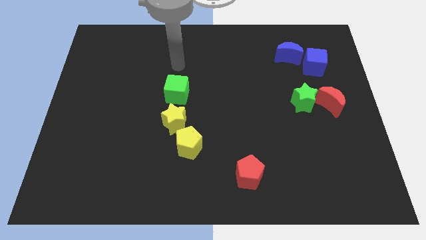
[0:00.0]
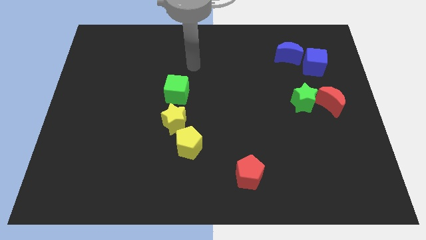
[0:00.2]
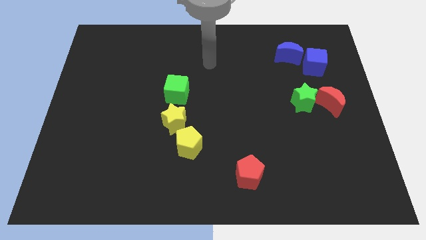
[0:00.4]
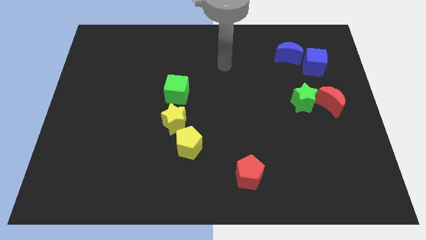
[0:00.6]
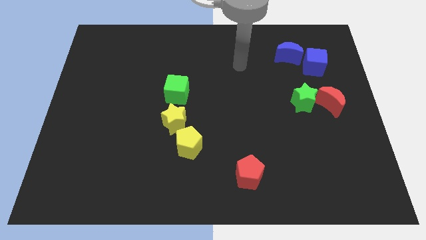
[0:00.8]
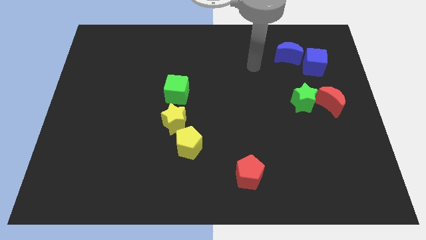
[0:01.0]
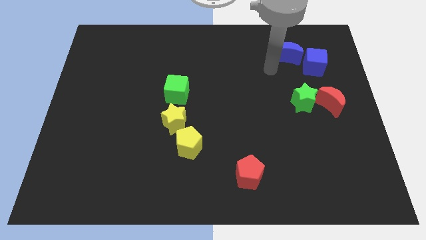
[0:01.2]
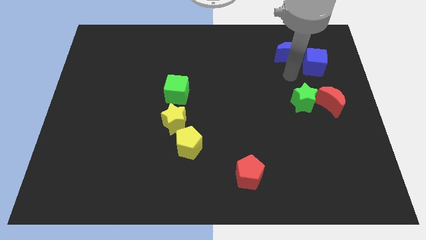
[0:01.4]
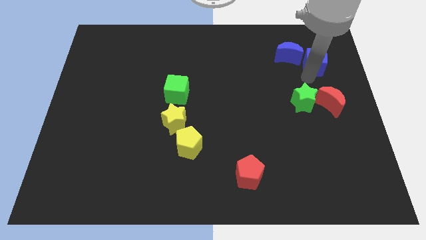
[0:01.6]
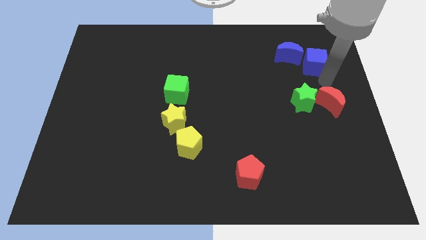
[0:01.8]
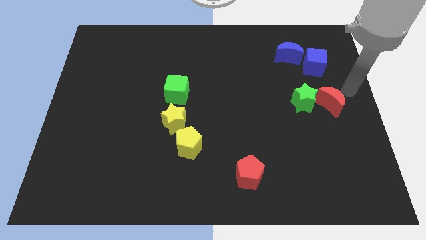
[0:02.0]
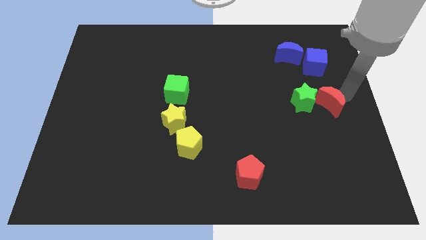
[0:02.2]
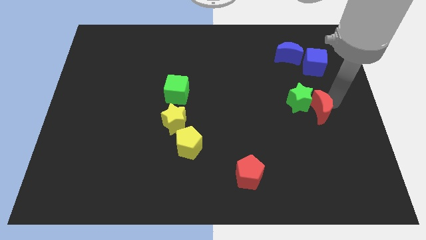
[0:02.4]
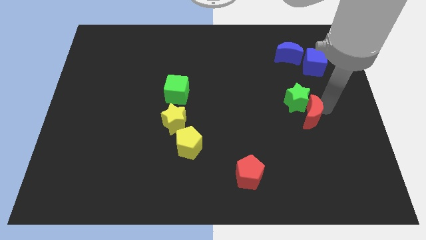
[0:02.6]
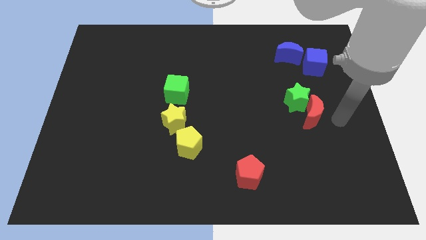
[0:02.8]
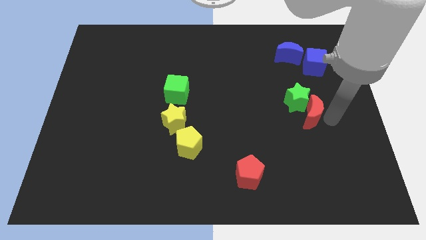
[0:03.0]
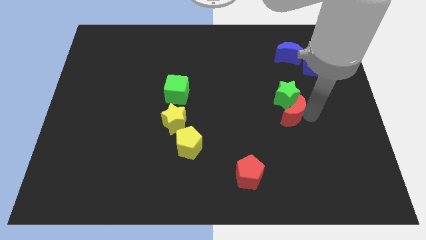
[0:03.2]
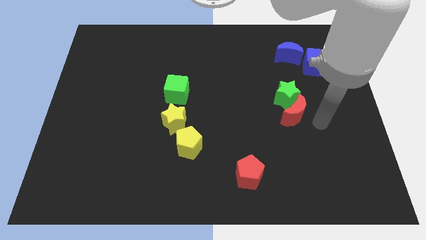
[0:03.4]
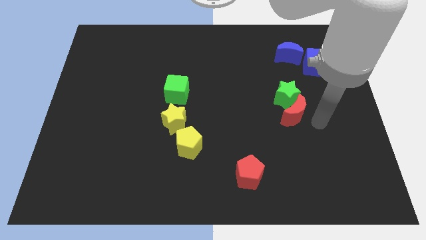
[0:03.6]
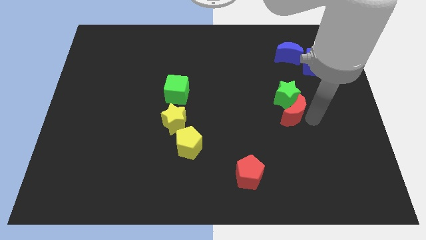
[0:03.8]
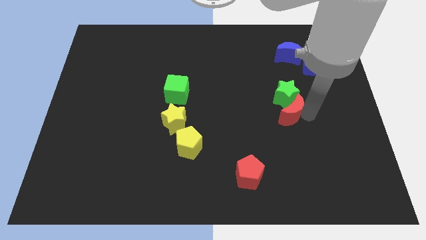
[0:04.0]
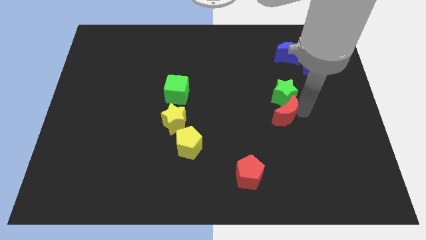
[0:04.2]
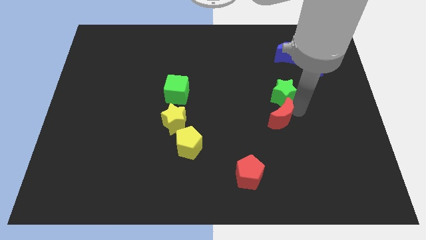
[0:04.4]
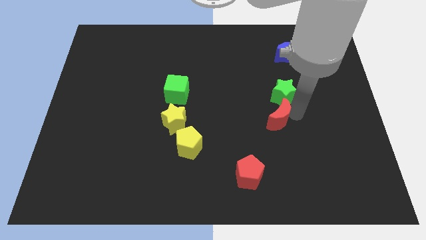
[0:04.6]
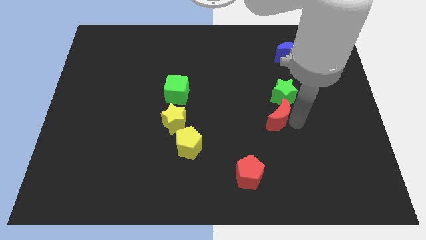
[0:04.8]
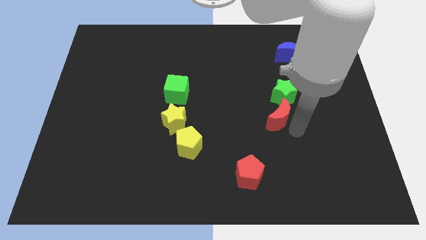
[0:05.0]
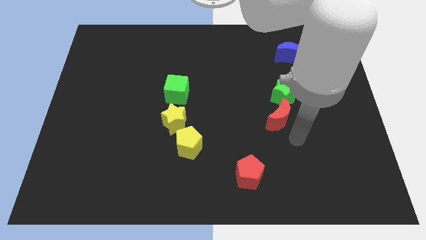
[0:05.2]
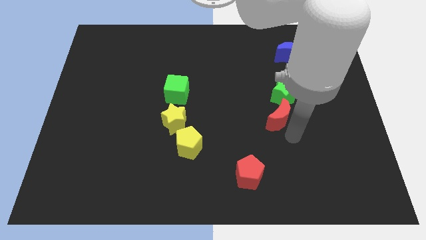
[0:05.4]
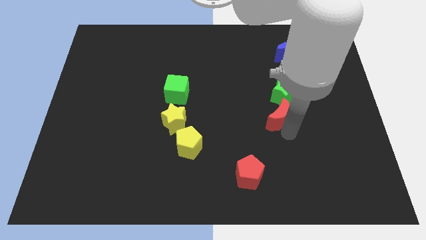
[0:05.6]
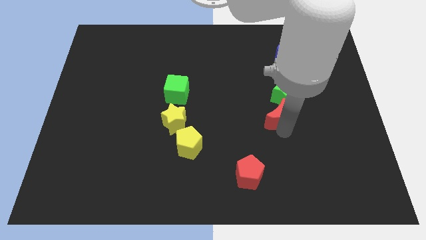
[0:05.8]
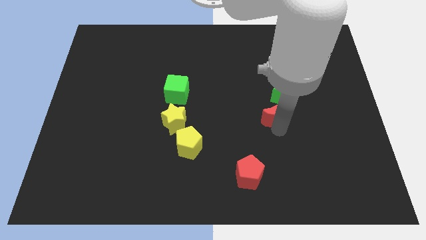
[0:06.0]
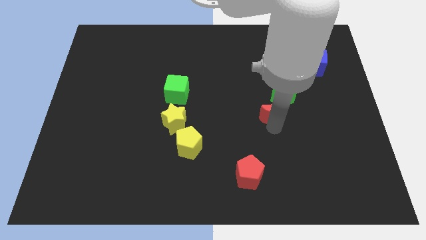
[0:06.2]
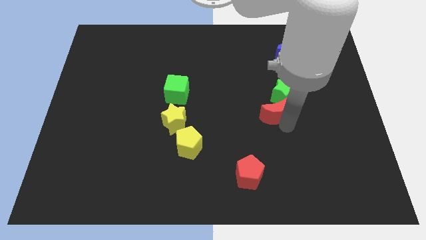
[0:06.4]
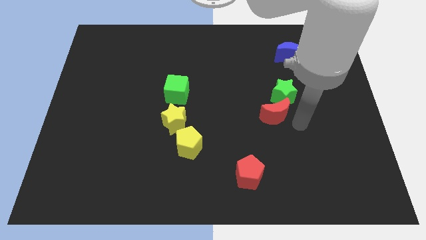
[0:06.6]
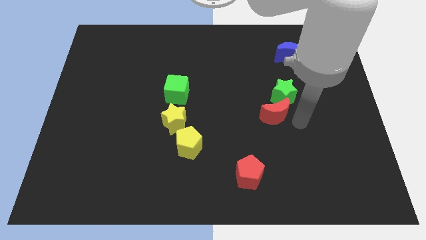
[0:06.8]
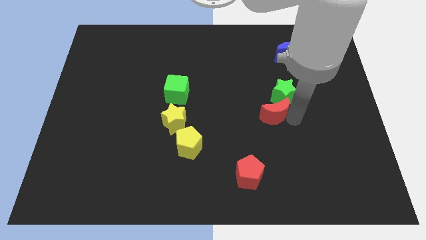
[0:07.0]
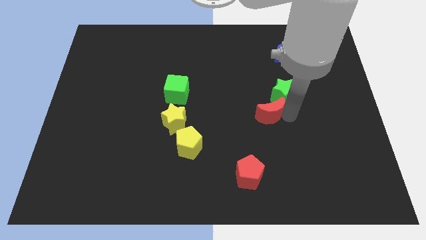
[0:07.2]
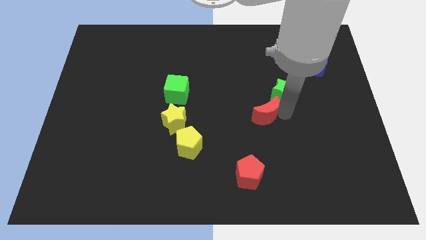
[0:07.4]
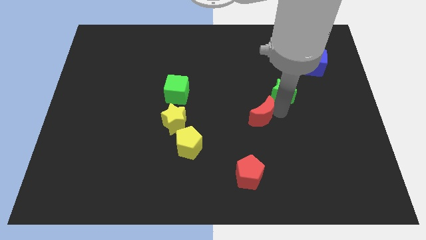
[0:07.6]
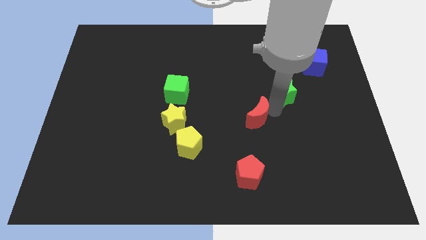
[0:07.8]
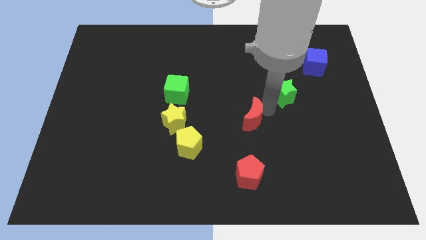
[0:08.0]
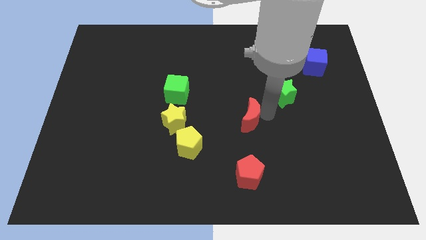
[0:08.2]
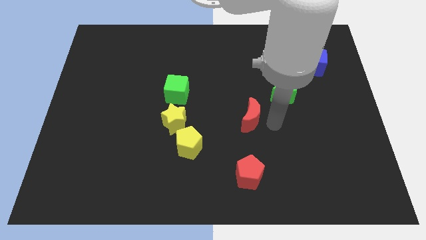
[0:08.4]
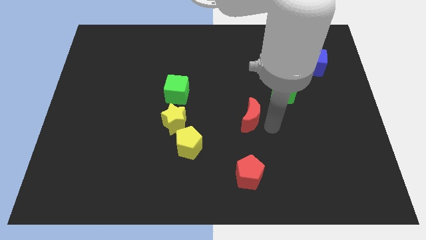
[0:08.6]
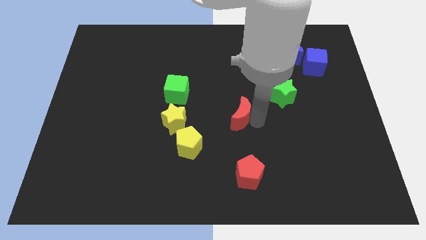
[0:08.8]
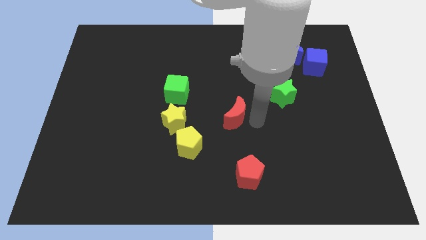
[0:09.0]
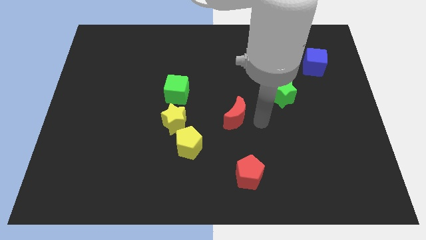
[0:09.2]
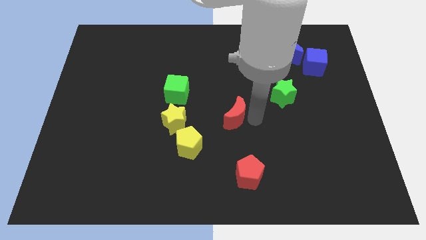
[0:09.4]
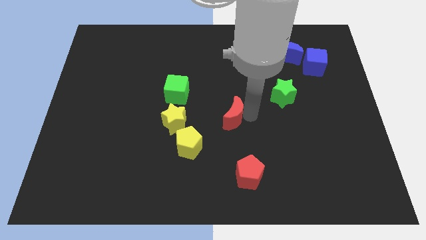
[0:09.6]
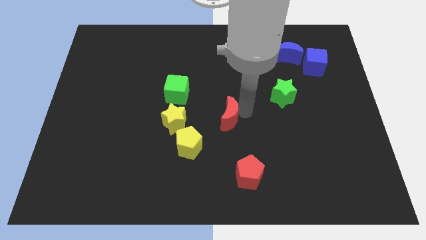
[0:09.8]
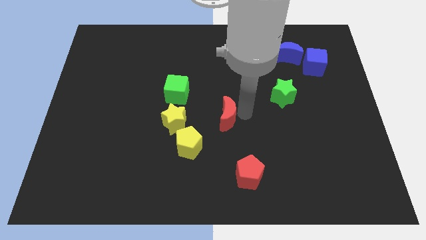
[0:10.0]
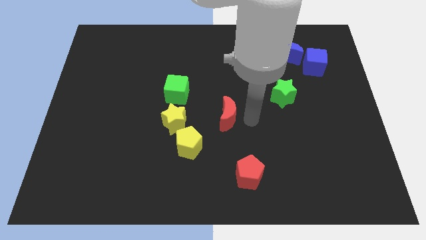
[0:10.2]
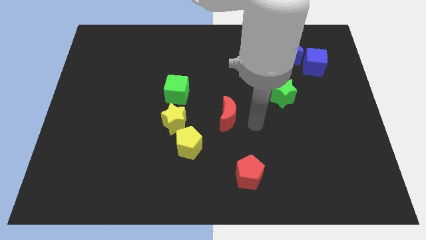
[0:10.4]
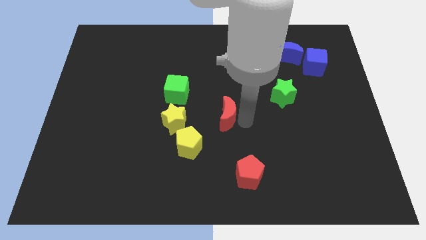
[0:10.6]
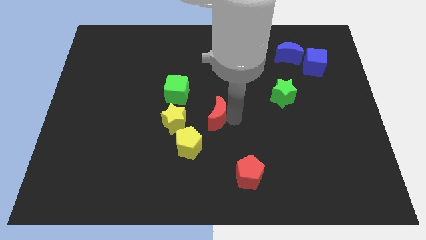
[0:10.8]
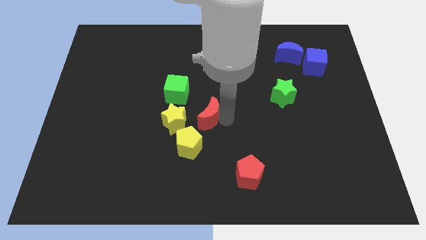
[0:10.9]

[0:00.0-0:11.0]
put the red moon to the top right of the yellow star
